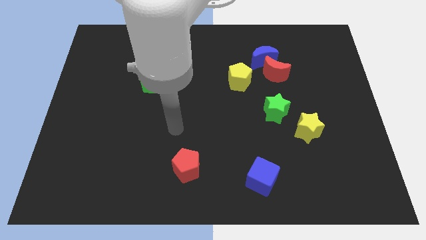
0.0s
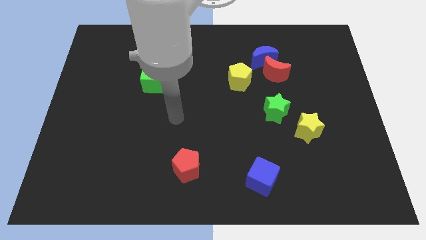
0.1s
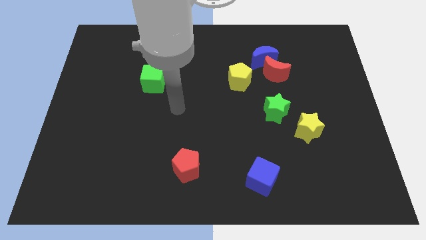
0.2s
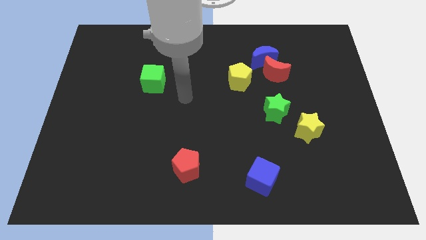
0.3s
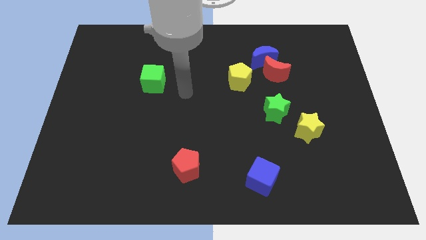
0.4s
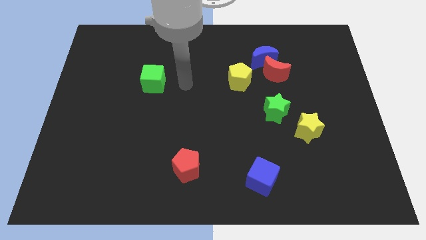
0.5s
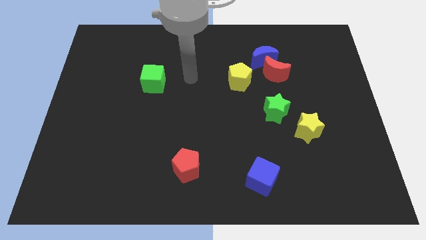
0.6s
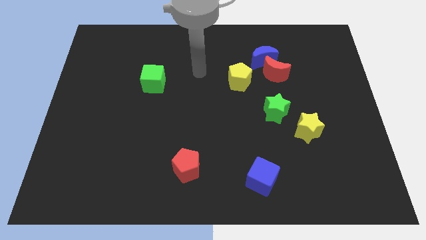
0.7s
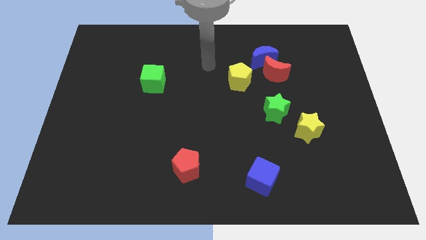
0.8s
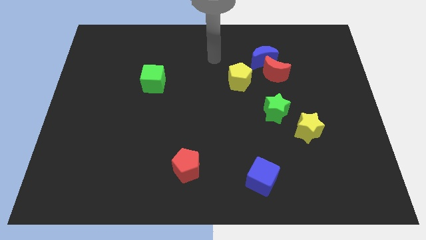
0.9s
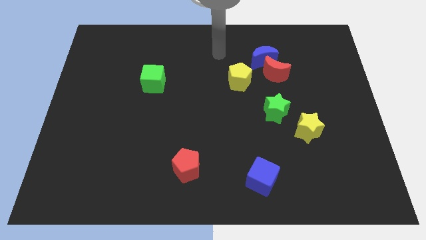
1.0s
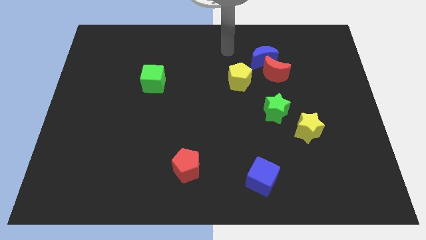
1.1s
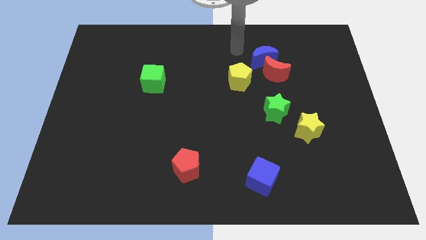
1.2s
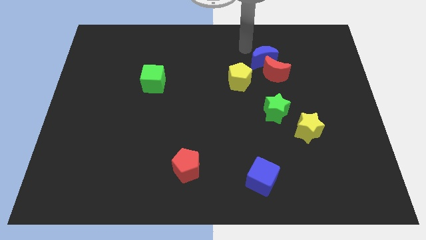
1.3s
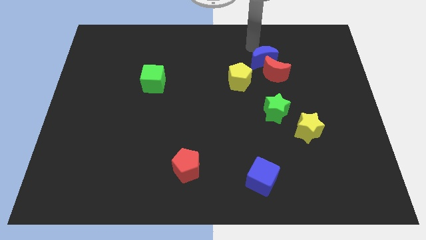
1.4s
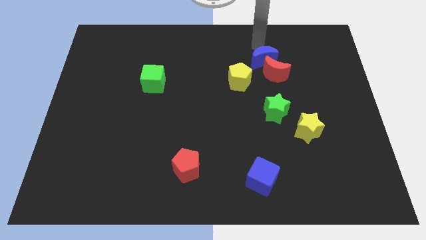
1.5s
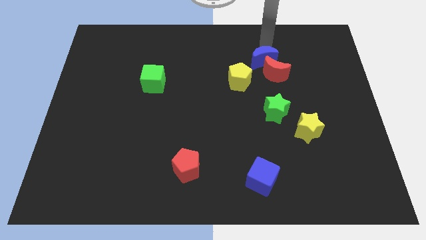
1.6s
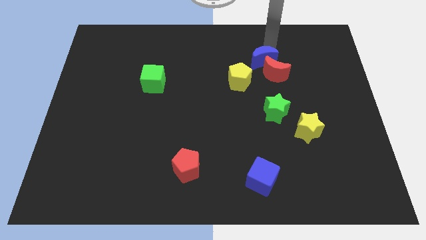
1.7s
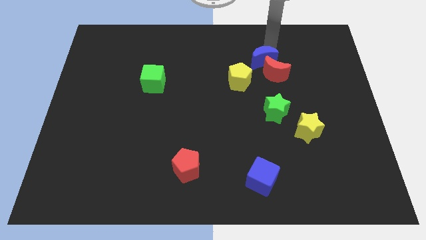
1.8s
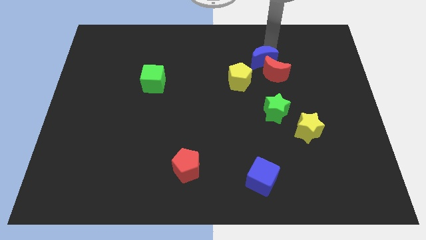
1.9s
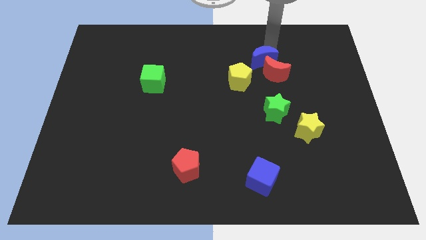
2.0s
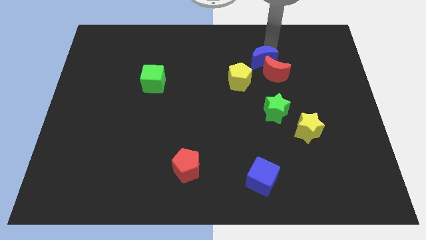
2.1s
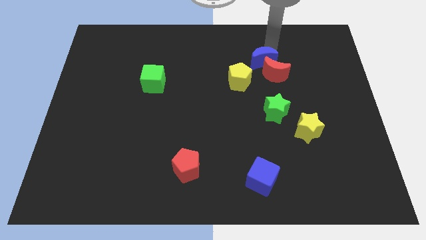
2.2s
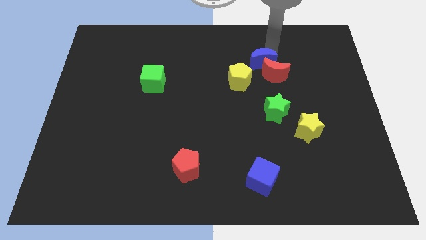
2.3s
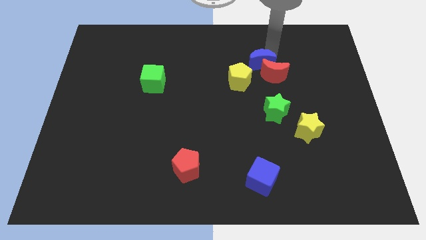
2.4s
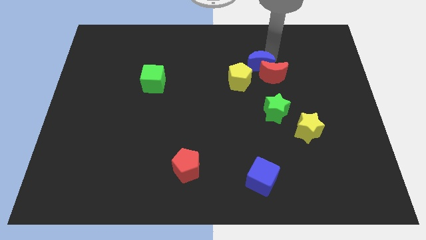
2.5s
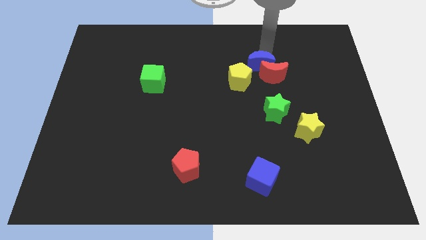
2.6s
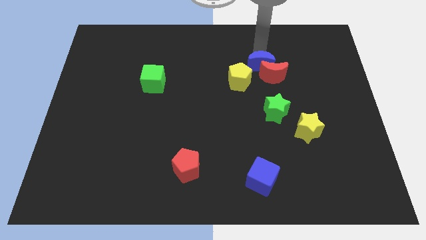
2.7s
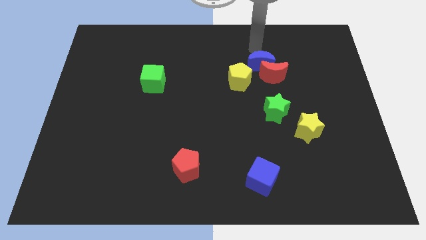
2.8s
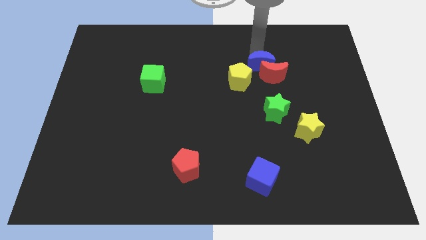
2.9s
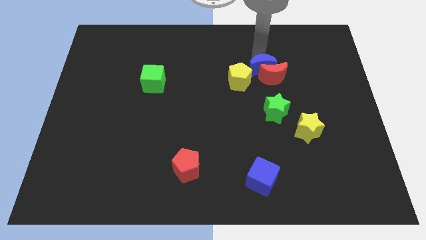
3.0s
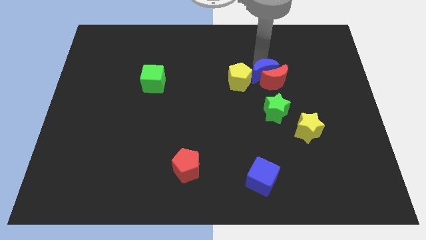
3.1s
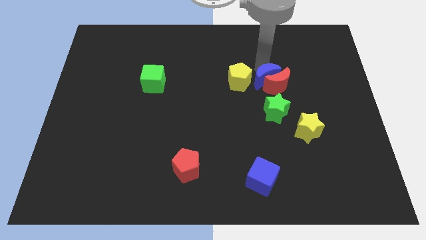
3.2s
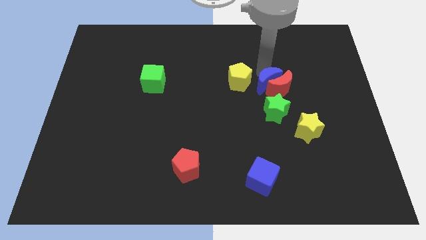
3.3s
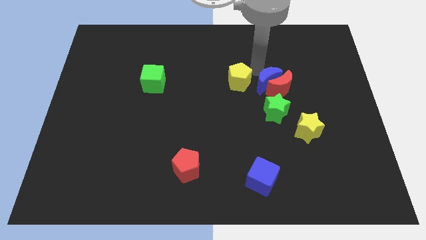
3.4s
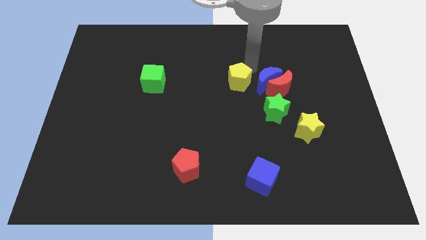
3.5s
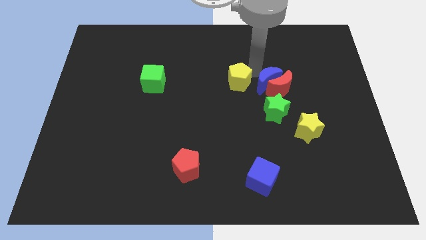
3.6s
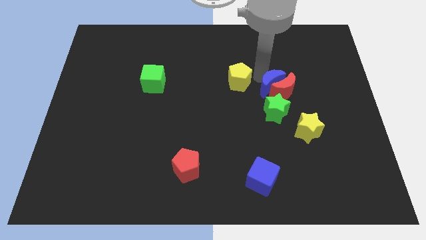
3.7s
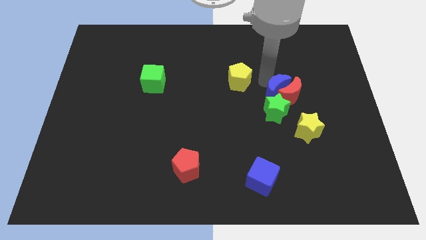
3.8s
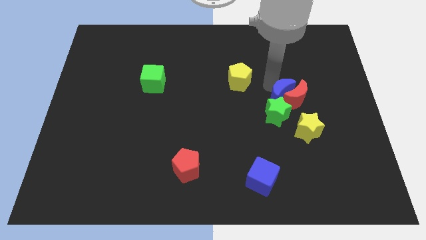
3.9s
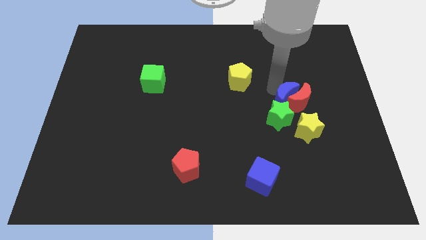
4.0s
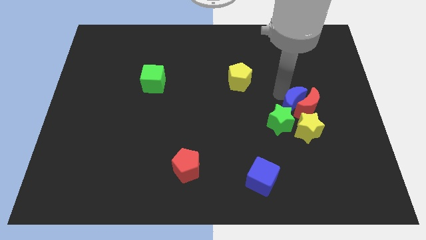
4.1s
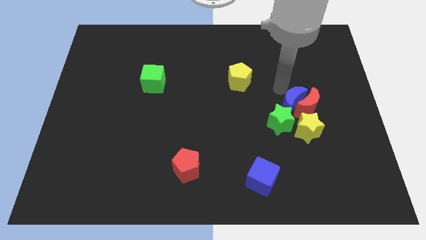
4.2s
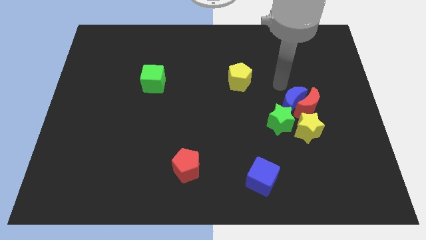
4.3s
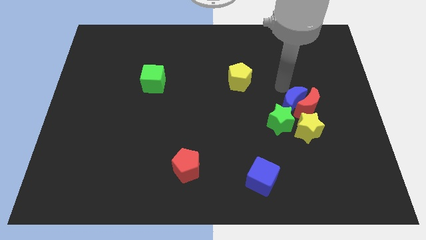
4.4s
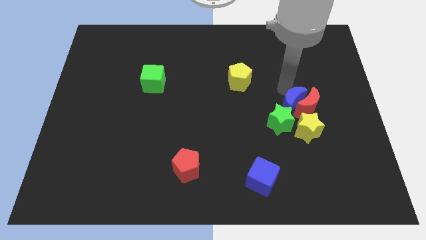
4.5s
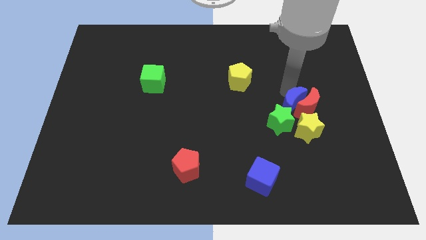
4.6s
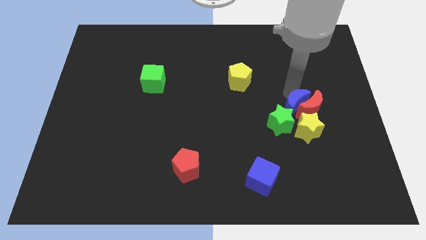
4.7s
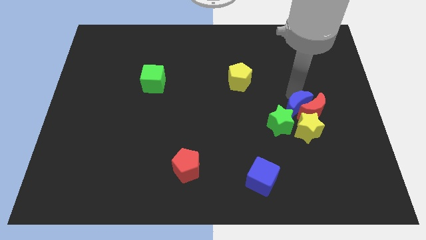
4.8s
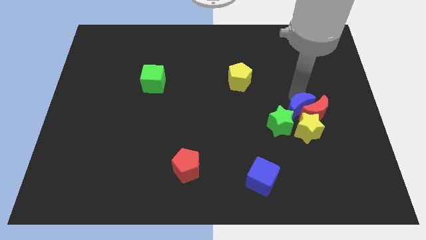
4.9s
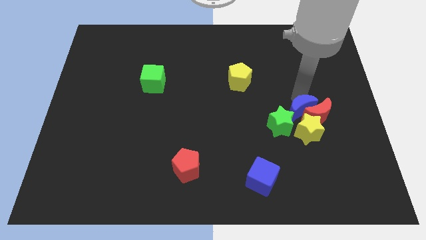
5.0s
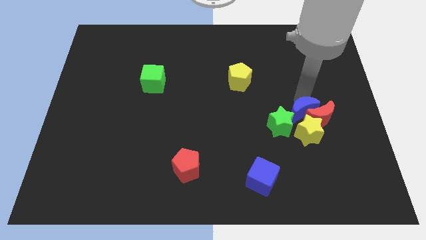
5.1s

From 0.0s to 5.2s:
slide the blue moon to the yellow star

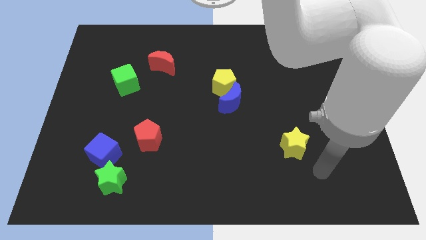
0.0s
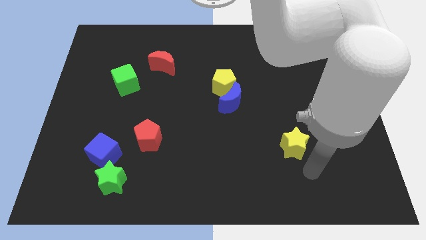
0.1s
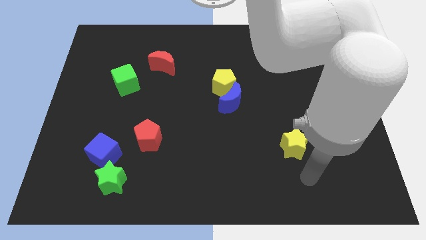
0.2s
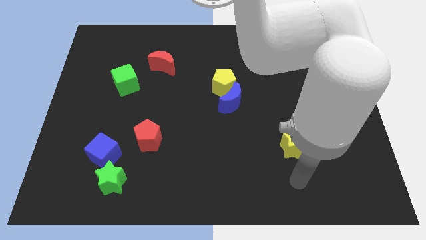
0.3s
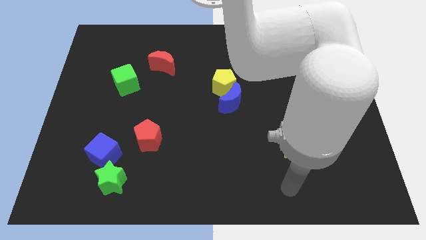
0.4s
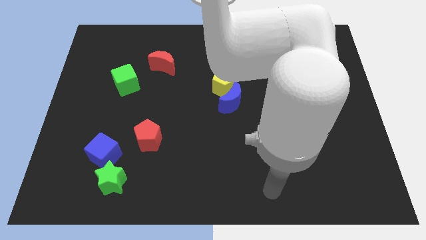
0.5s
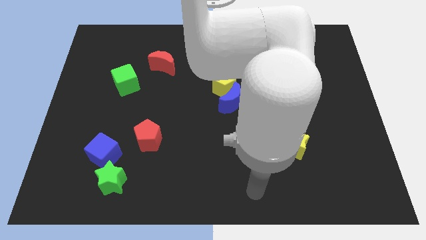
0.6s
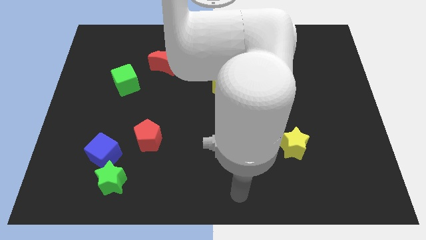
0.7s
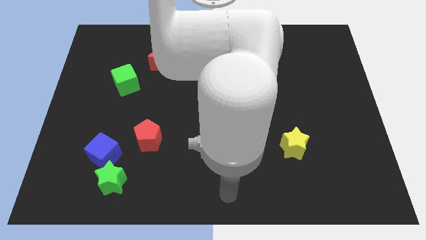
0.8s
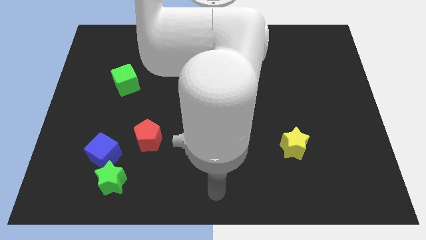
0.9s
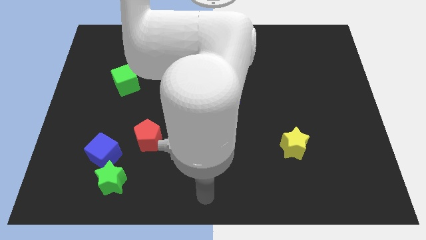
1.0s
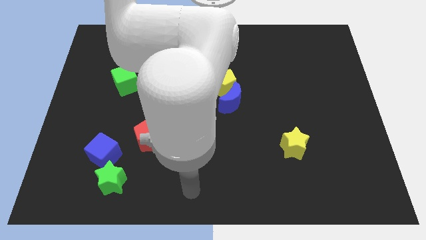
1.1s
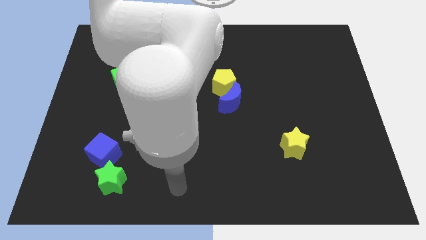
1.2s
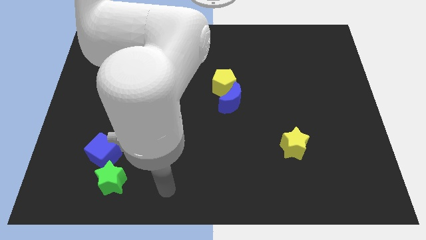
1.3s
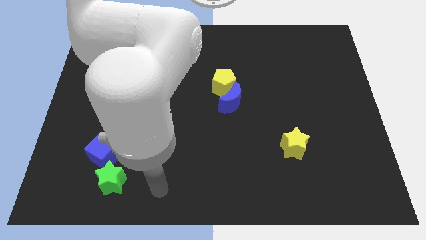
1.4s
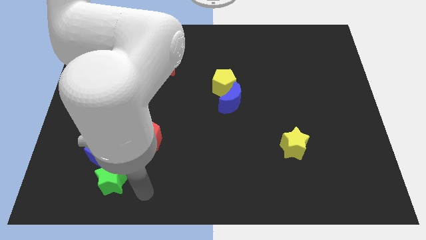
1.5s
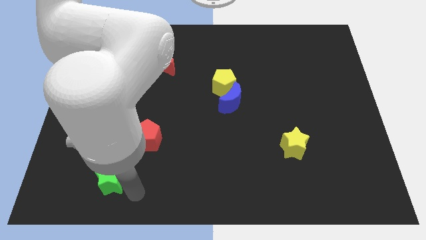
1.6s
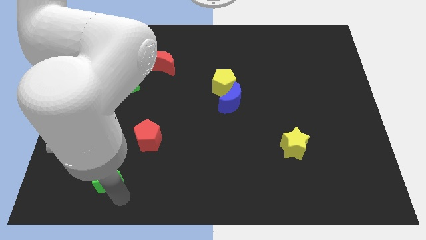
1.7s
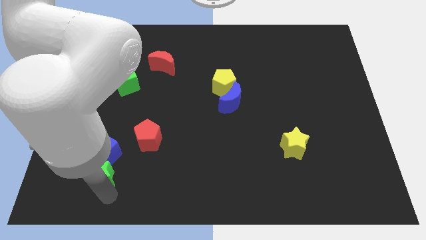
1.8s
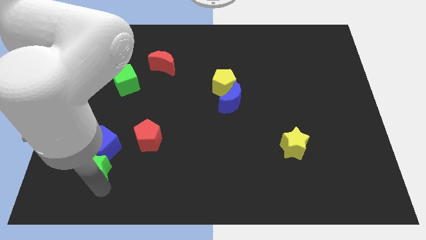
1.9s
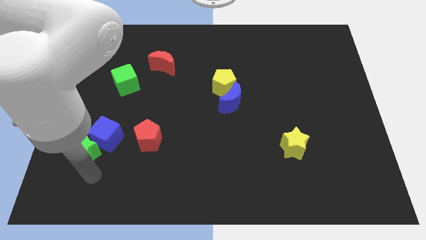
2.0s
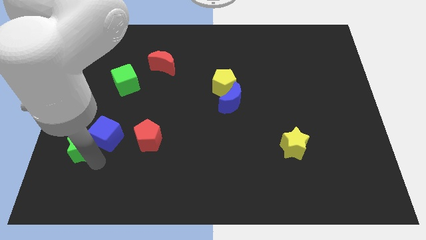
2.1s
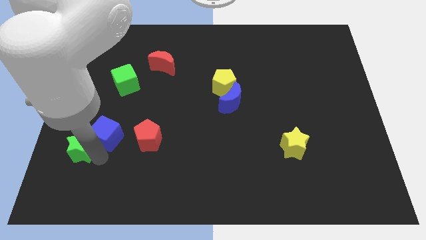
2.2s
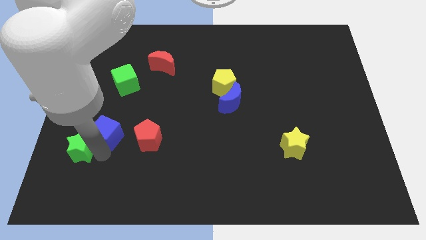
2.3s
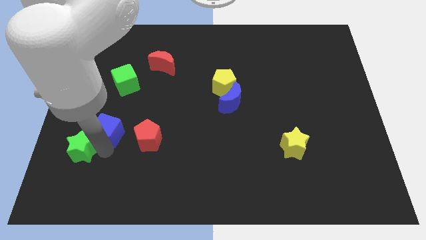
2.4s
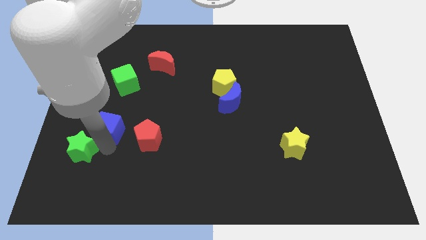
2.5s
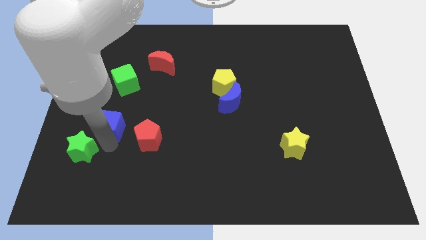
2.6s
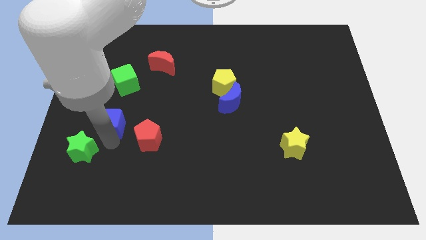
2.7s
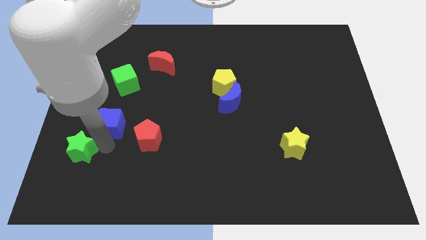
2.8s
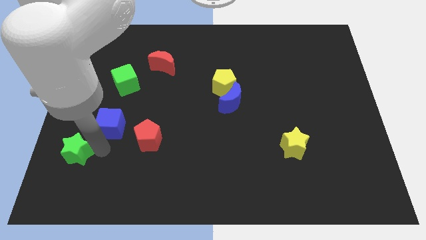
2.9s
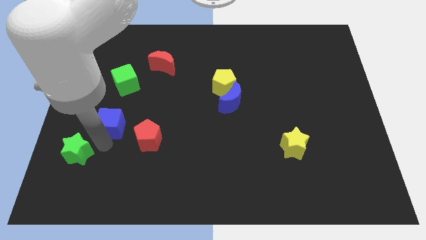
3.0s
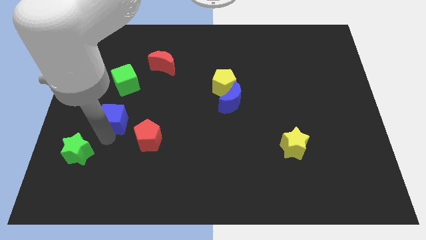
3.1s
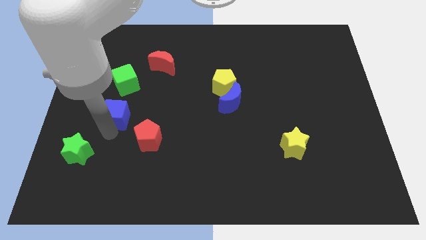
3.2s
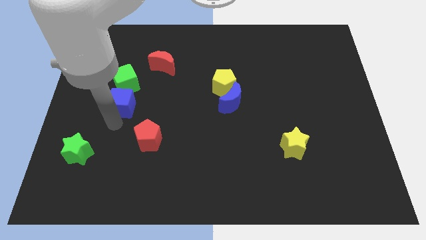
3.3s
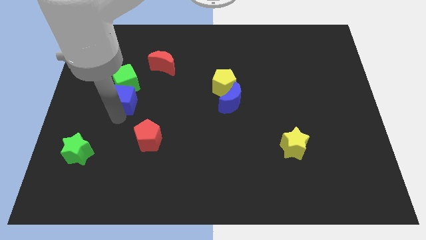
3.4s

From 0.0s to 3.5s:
move the blue cube towards the green cube
